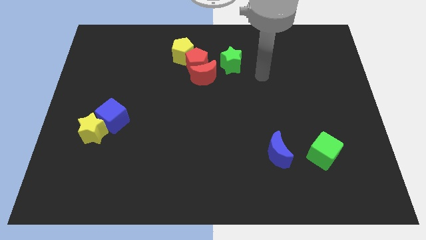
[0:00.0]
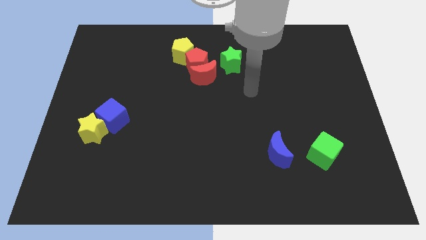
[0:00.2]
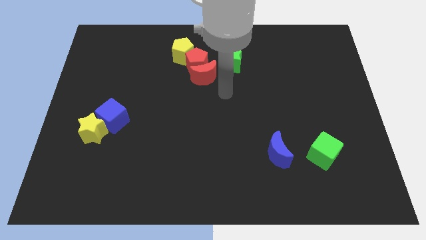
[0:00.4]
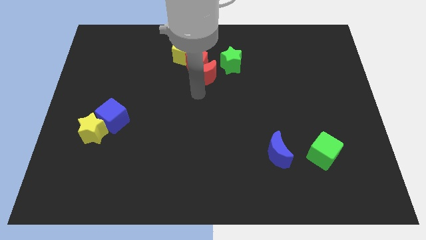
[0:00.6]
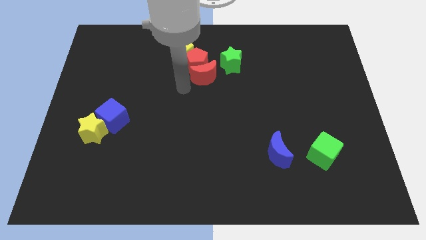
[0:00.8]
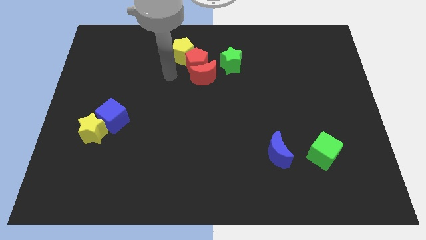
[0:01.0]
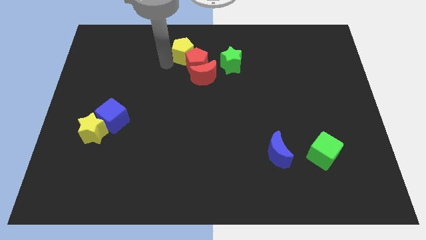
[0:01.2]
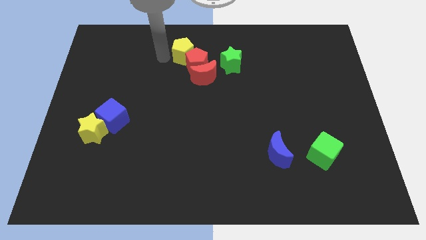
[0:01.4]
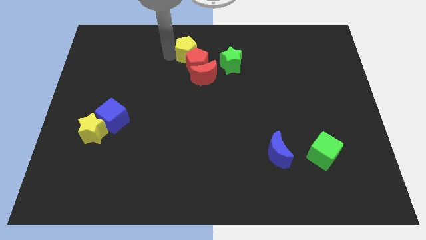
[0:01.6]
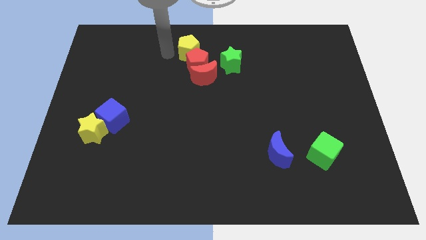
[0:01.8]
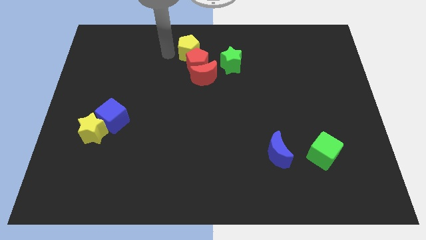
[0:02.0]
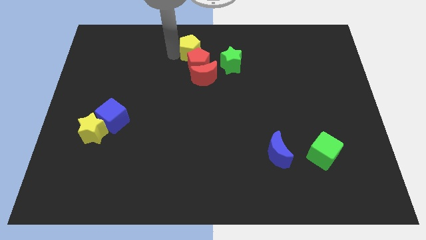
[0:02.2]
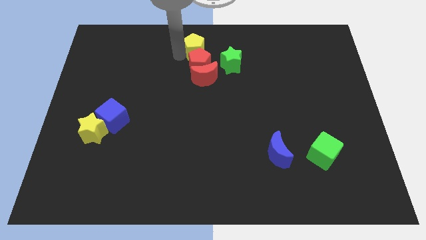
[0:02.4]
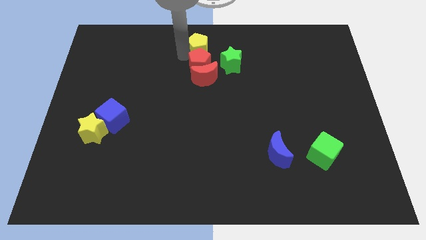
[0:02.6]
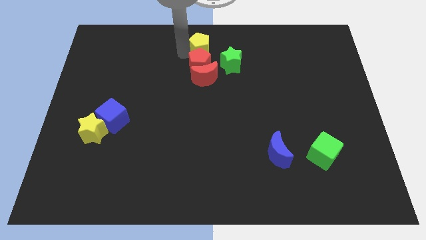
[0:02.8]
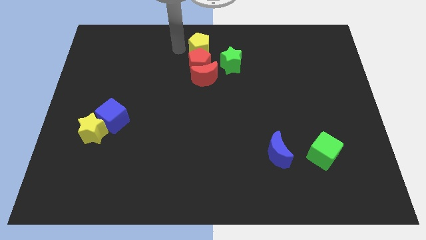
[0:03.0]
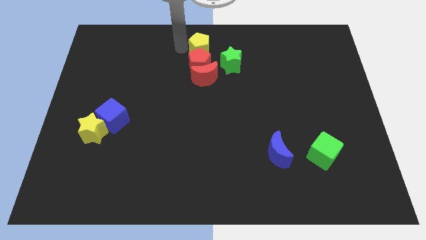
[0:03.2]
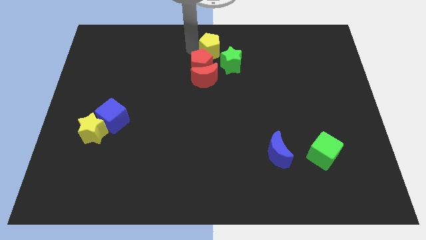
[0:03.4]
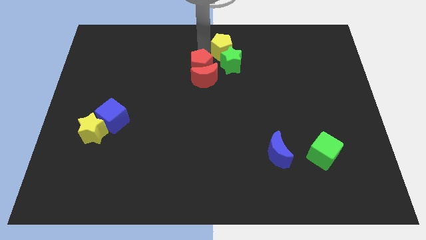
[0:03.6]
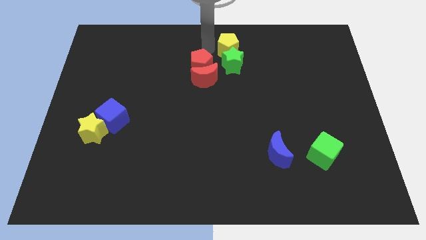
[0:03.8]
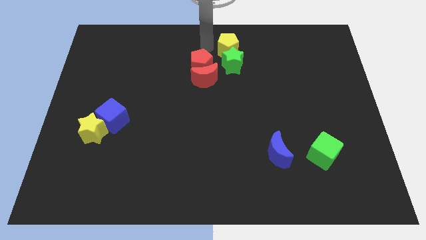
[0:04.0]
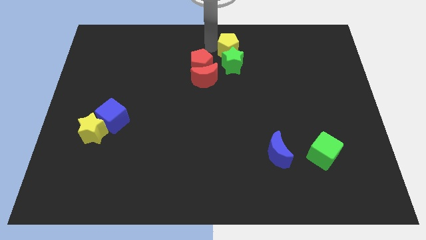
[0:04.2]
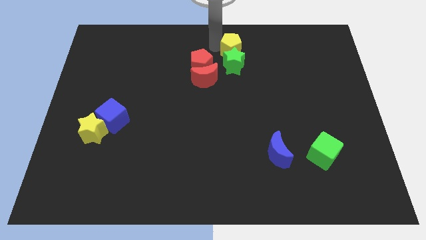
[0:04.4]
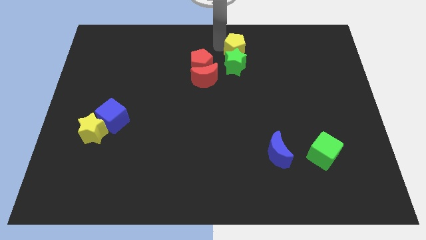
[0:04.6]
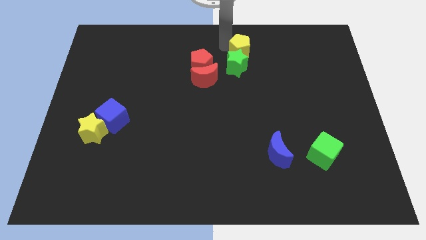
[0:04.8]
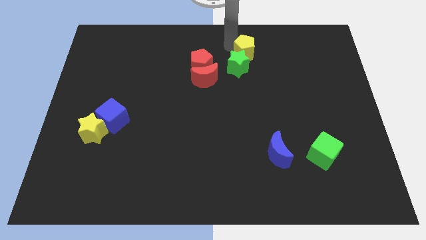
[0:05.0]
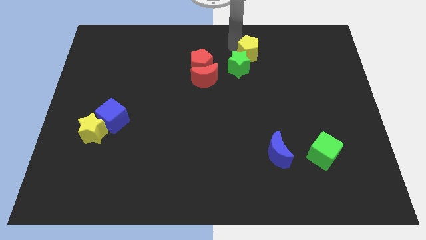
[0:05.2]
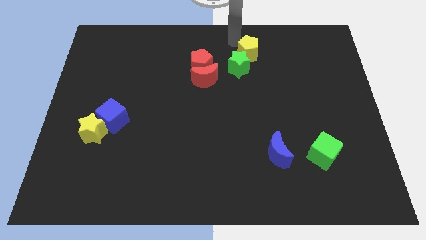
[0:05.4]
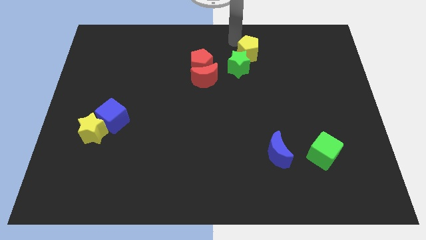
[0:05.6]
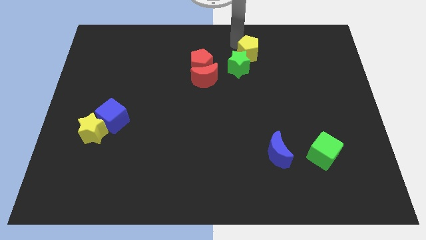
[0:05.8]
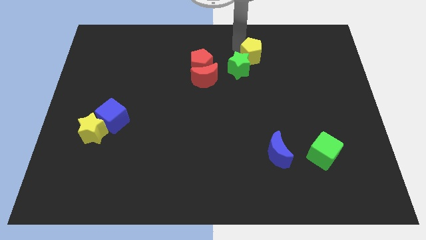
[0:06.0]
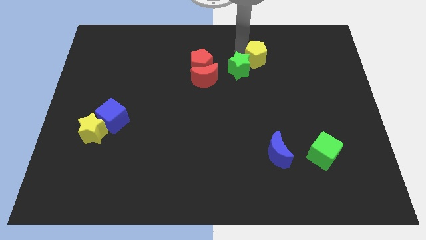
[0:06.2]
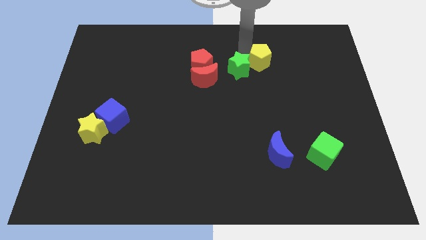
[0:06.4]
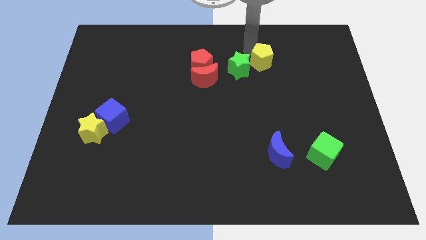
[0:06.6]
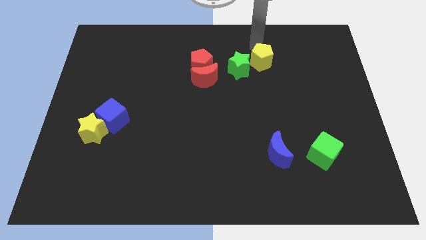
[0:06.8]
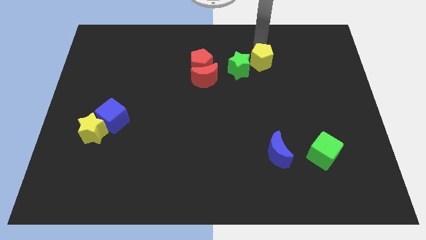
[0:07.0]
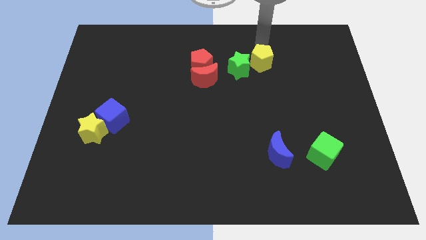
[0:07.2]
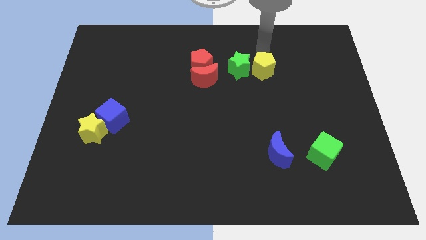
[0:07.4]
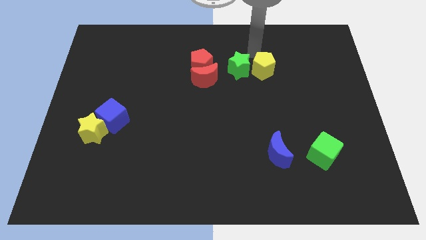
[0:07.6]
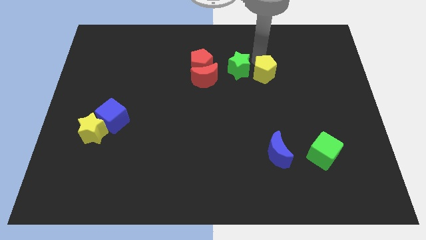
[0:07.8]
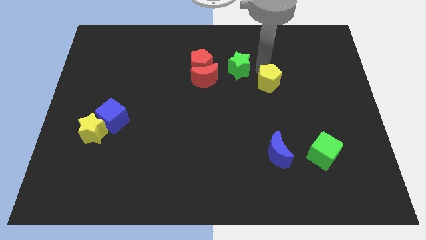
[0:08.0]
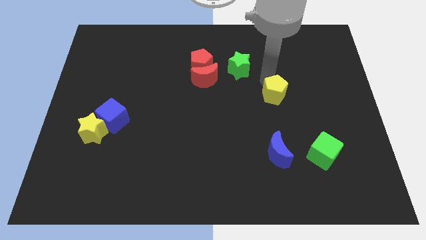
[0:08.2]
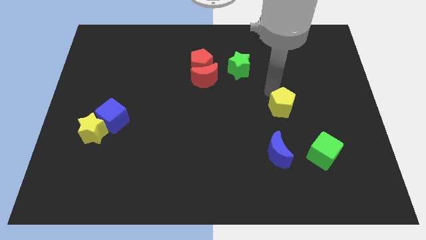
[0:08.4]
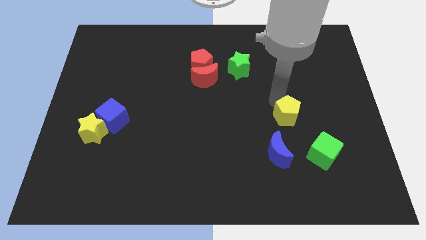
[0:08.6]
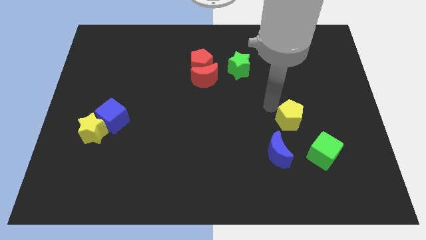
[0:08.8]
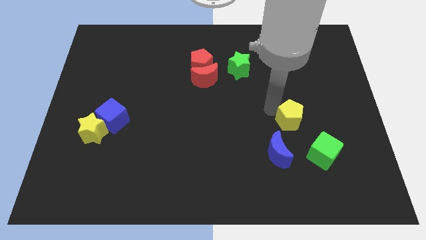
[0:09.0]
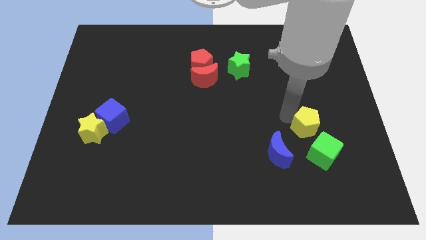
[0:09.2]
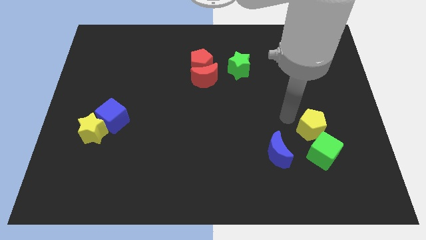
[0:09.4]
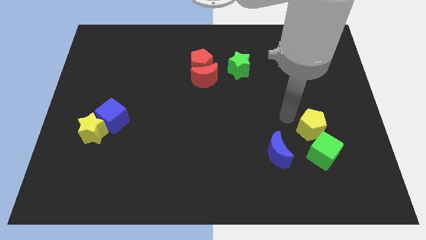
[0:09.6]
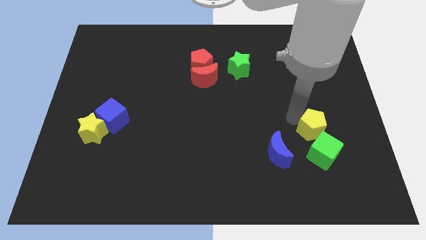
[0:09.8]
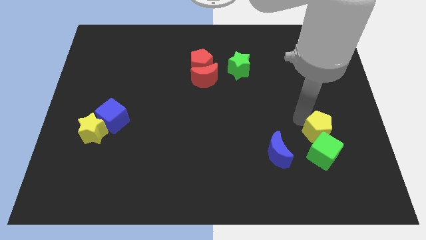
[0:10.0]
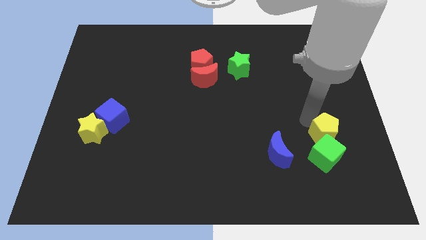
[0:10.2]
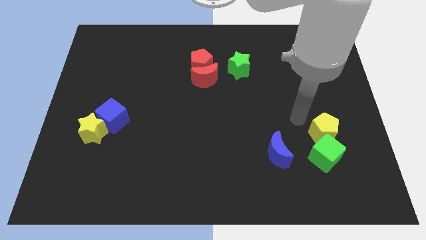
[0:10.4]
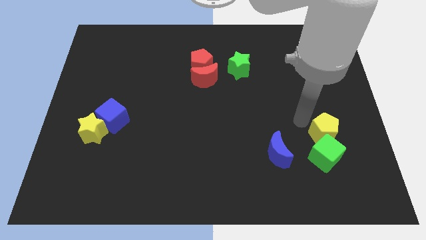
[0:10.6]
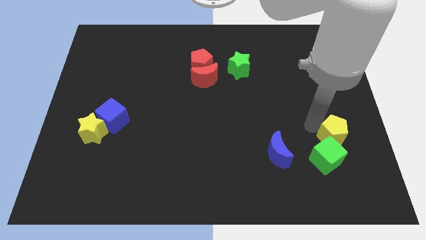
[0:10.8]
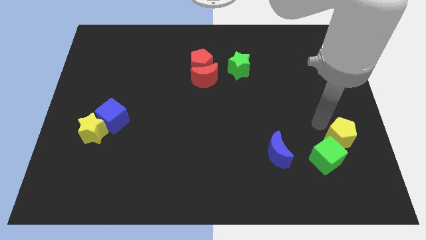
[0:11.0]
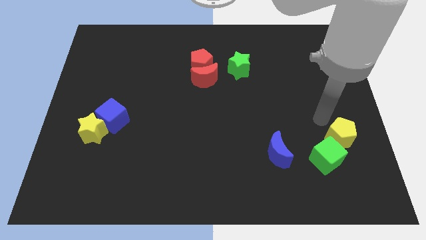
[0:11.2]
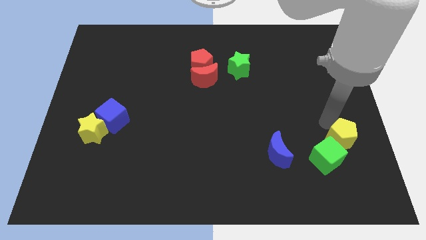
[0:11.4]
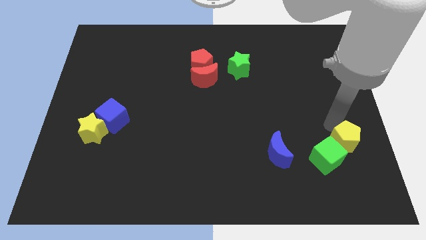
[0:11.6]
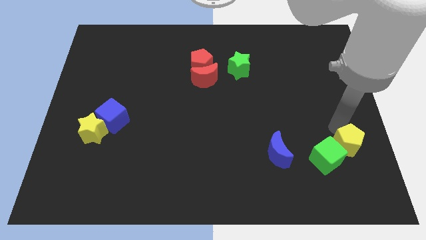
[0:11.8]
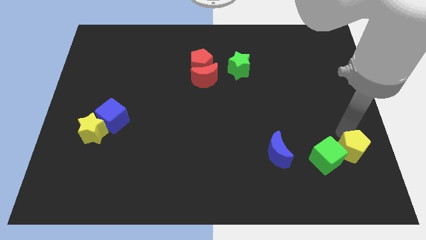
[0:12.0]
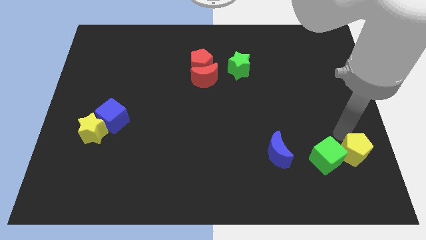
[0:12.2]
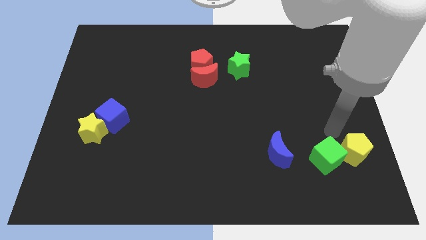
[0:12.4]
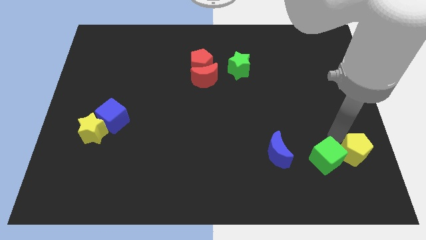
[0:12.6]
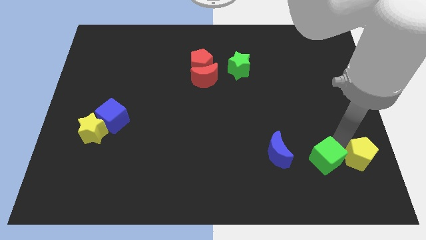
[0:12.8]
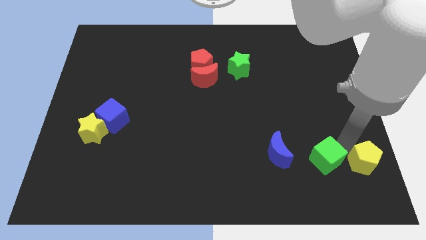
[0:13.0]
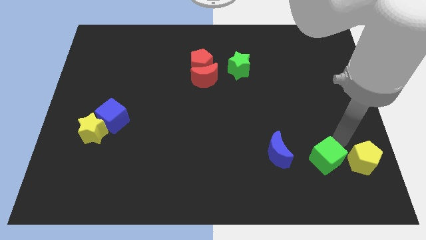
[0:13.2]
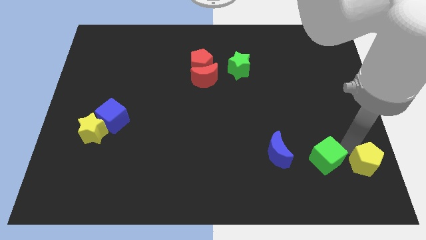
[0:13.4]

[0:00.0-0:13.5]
push the yellow pentagon to the lower right corner
